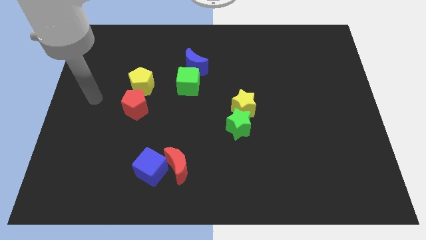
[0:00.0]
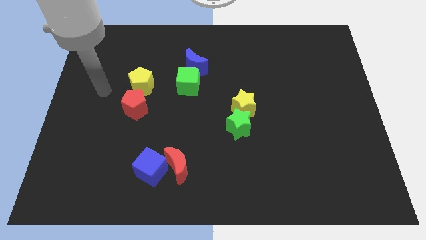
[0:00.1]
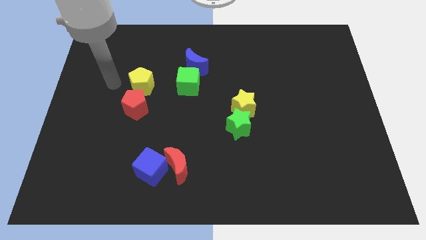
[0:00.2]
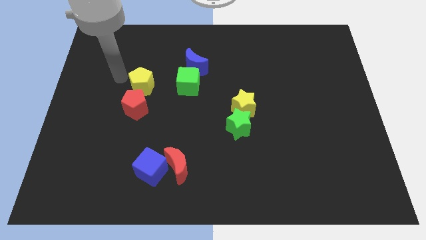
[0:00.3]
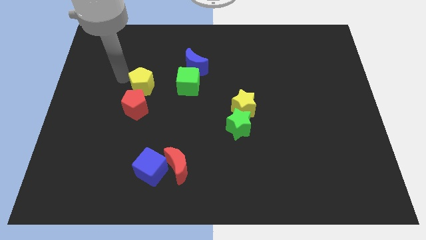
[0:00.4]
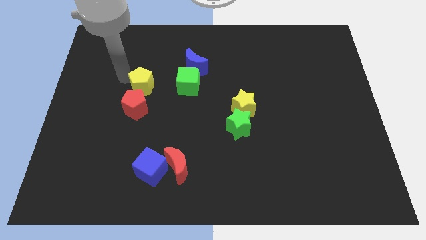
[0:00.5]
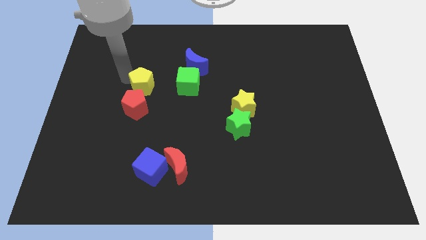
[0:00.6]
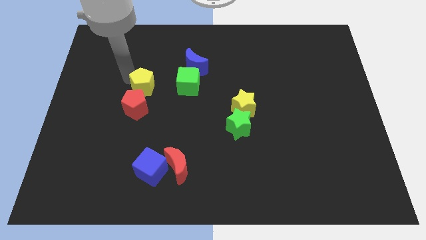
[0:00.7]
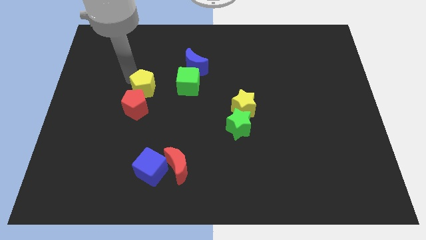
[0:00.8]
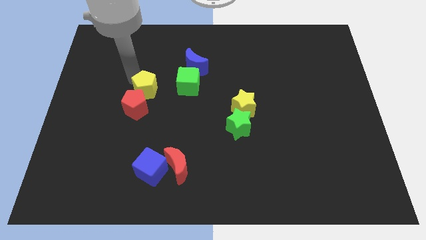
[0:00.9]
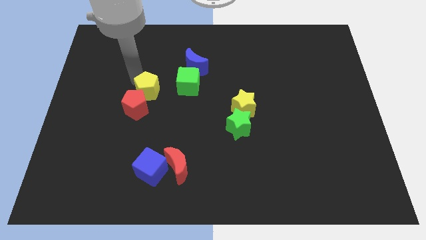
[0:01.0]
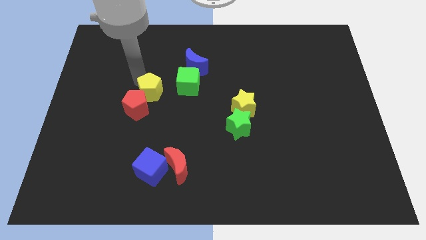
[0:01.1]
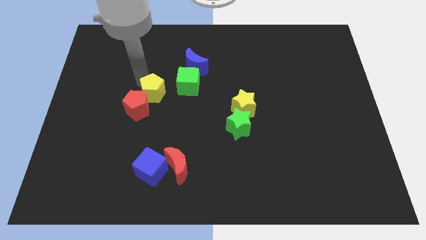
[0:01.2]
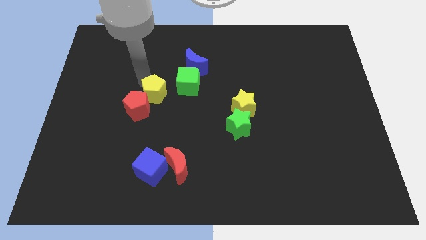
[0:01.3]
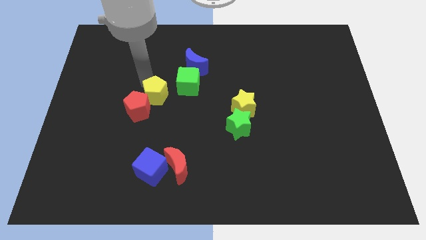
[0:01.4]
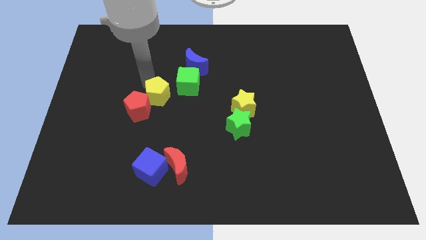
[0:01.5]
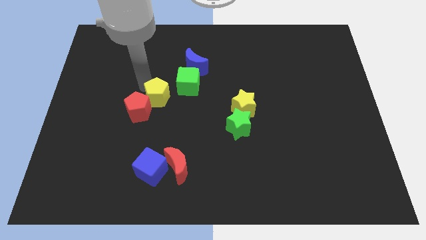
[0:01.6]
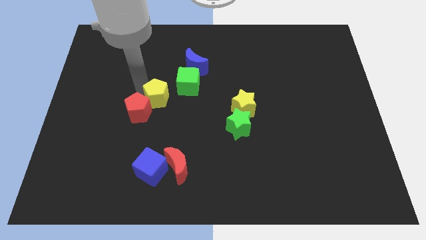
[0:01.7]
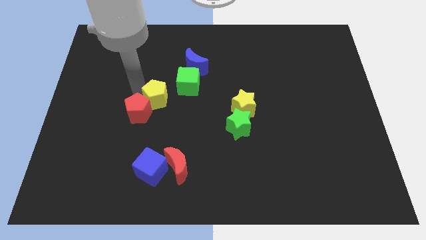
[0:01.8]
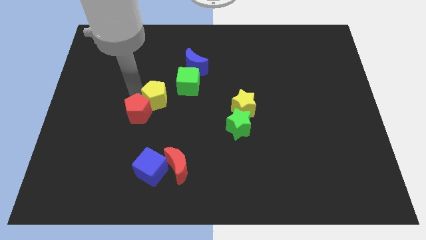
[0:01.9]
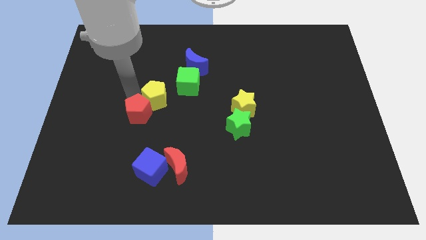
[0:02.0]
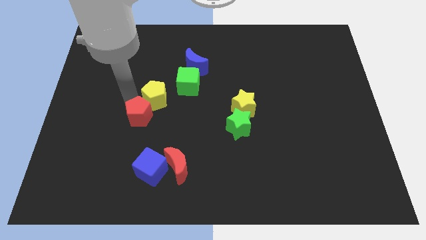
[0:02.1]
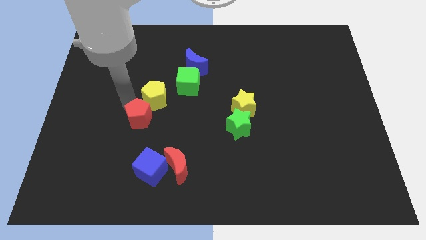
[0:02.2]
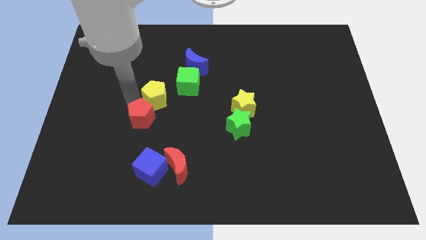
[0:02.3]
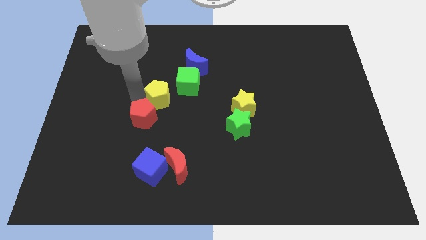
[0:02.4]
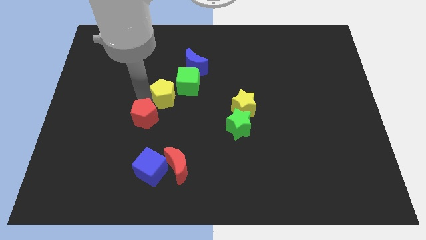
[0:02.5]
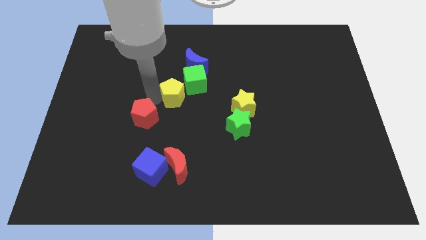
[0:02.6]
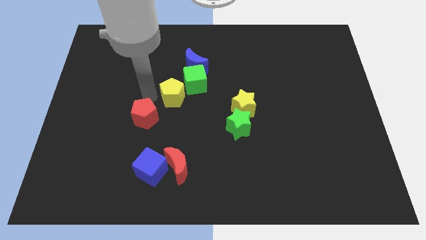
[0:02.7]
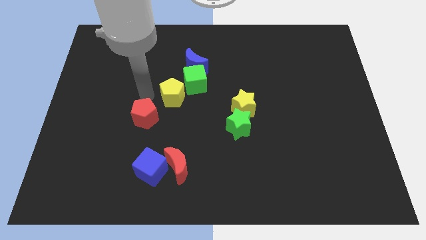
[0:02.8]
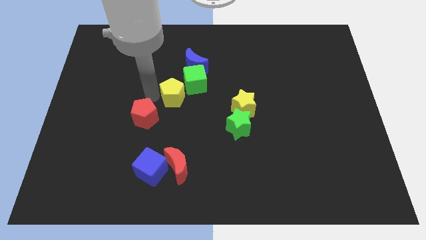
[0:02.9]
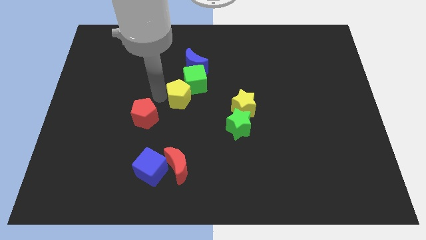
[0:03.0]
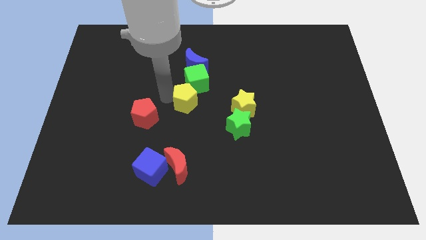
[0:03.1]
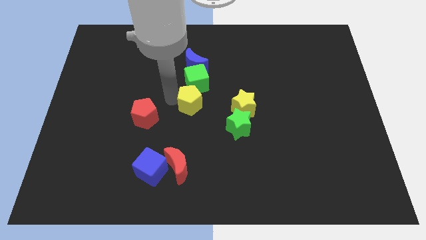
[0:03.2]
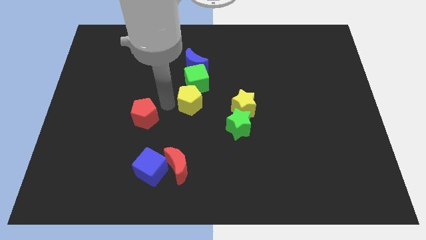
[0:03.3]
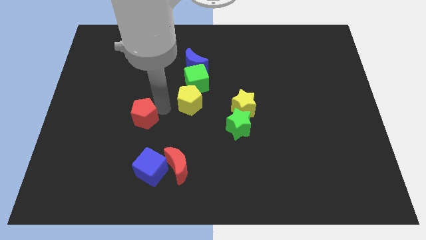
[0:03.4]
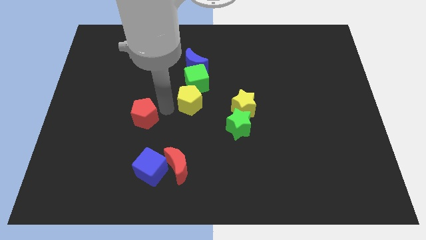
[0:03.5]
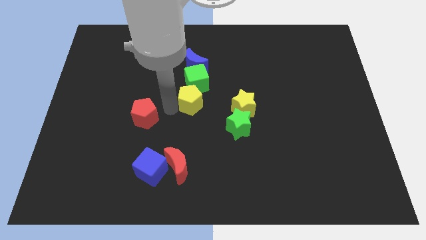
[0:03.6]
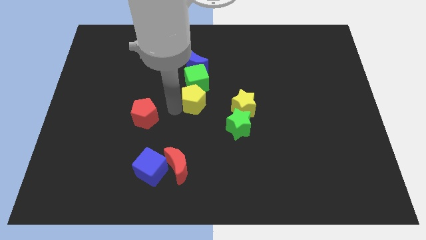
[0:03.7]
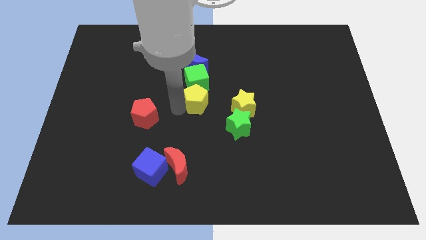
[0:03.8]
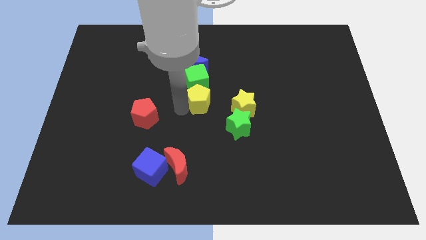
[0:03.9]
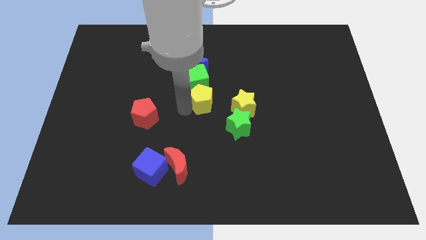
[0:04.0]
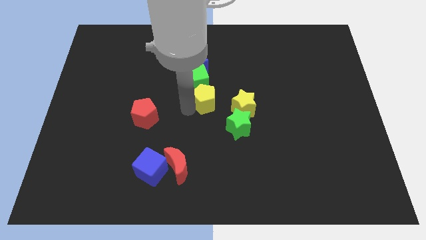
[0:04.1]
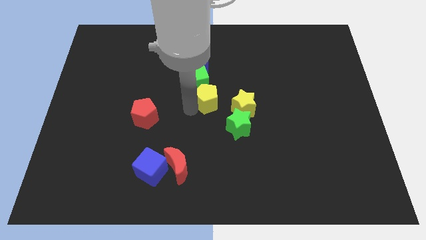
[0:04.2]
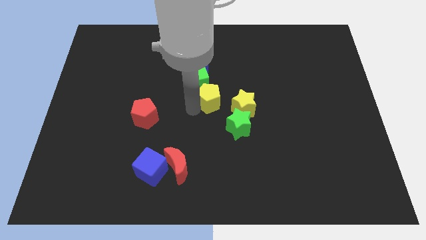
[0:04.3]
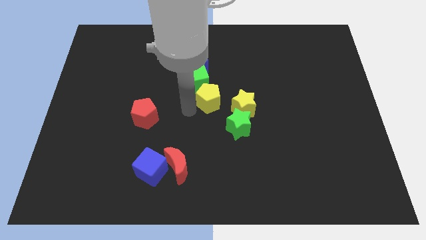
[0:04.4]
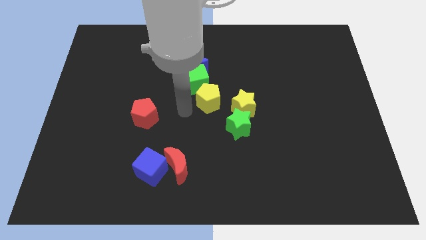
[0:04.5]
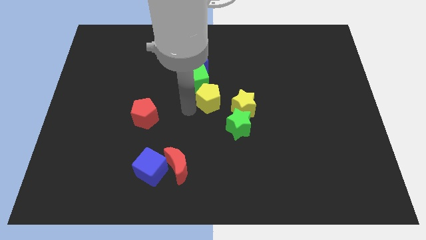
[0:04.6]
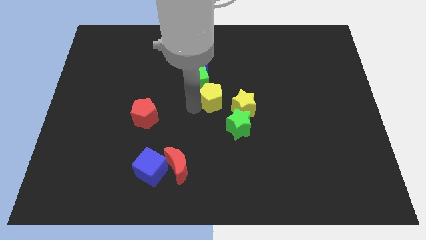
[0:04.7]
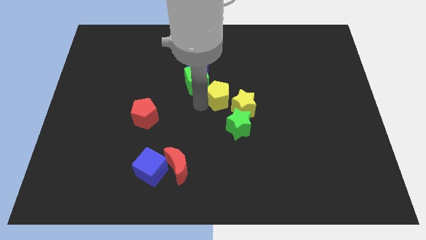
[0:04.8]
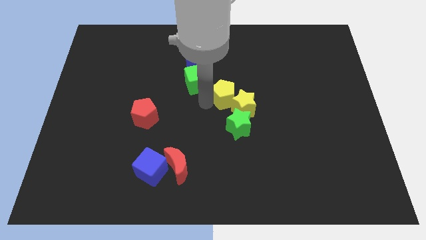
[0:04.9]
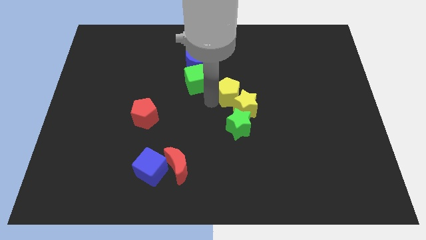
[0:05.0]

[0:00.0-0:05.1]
push the yellow pentagon to the right

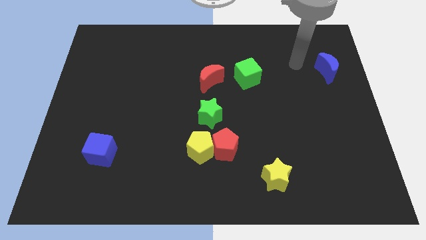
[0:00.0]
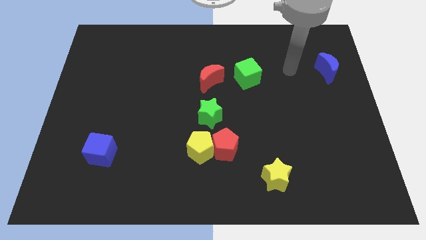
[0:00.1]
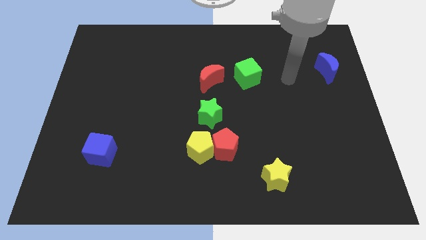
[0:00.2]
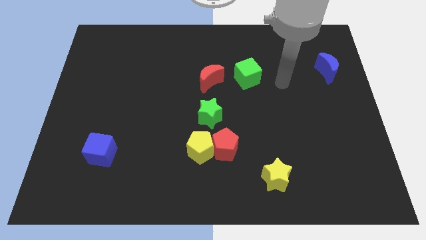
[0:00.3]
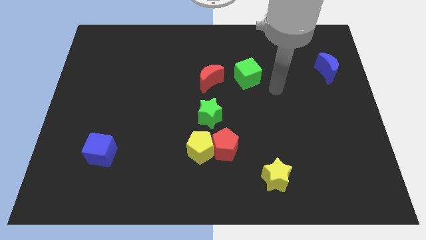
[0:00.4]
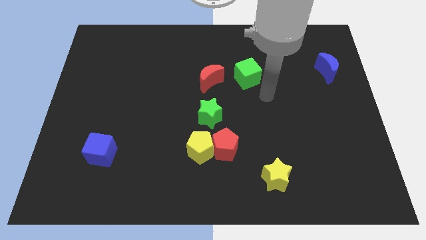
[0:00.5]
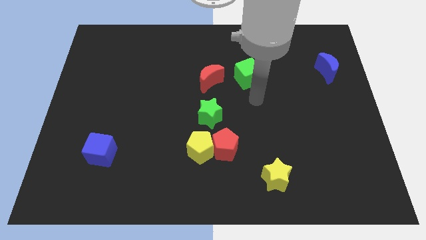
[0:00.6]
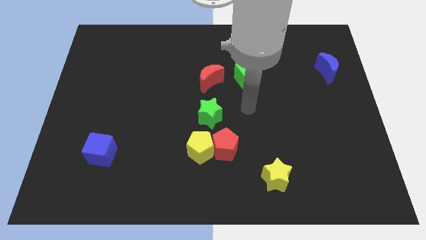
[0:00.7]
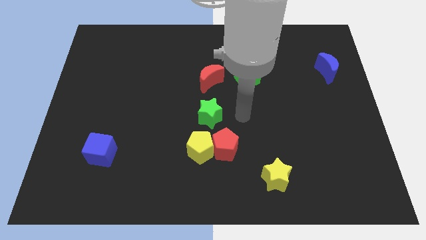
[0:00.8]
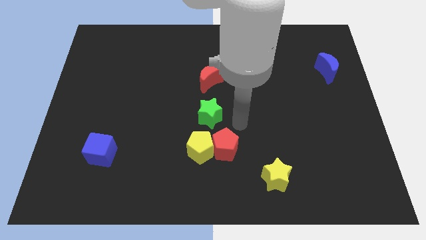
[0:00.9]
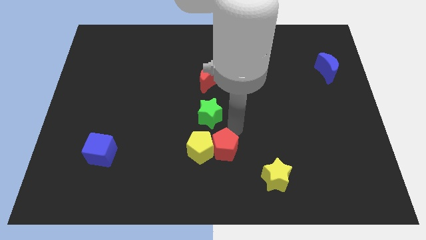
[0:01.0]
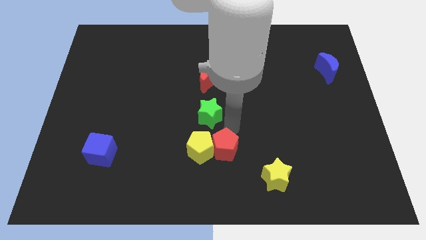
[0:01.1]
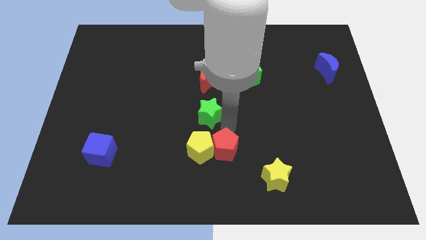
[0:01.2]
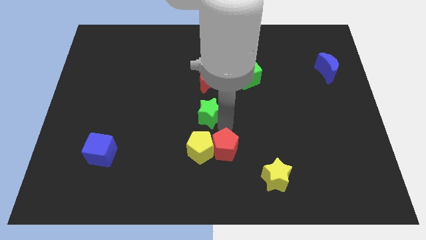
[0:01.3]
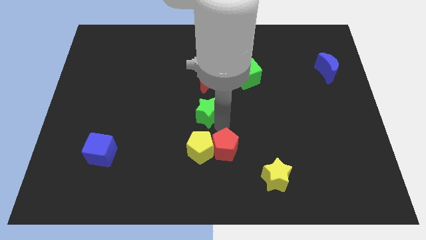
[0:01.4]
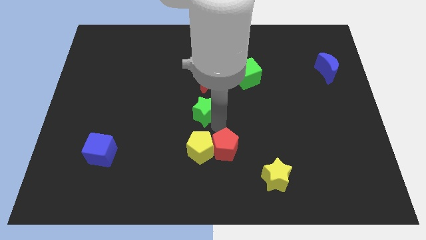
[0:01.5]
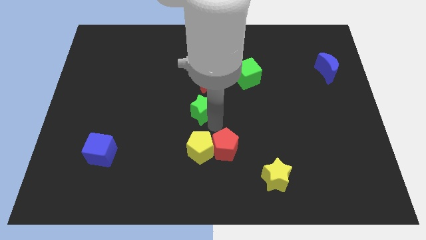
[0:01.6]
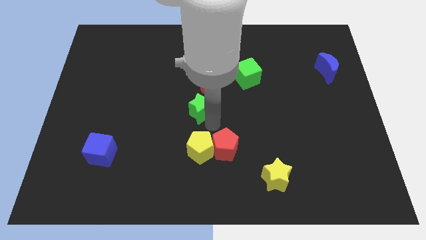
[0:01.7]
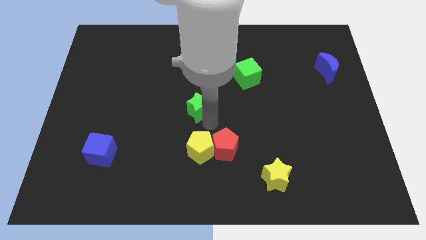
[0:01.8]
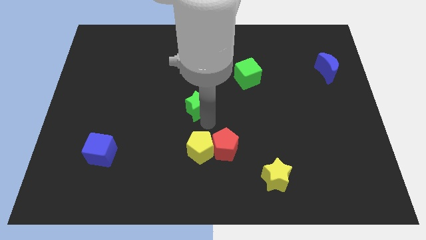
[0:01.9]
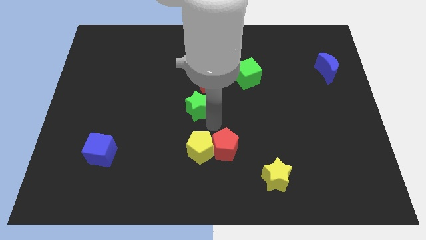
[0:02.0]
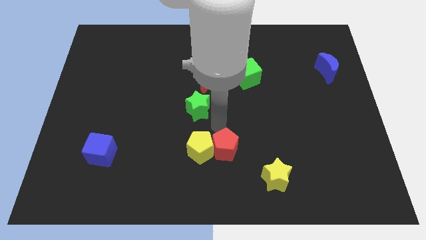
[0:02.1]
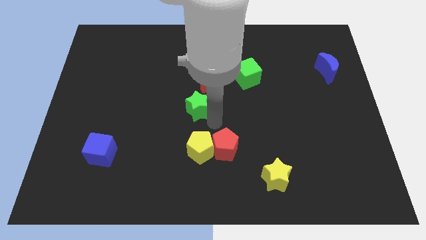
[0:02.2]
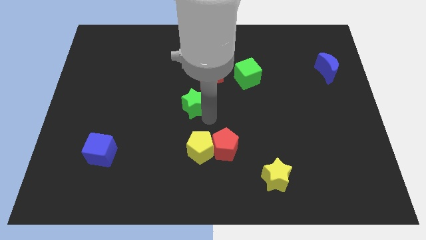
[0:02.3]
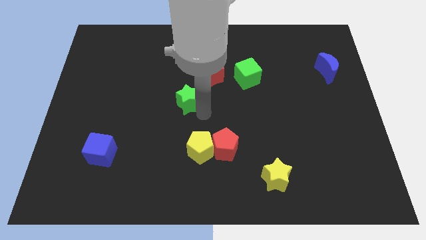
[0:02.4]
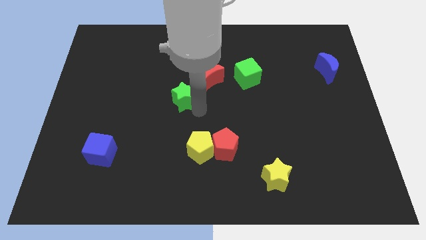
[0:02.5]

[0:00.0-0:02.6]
push the green star somewhat diagonally upwards and to the left

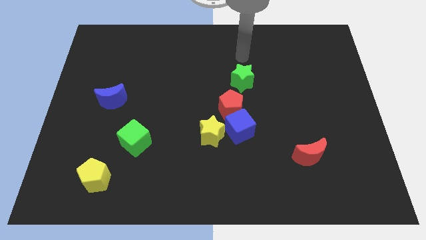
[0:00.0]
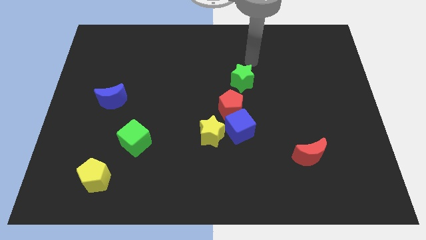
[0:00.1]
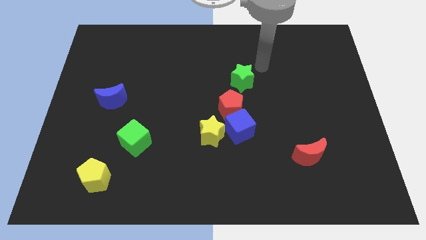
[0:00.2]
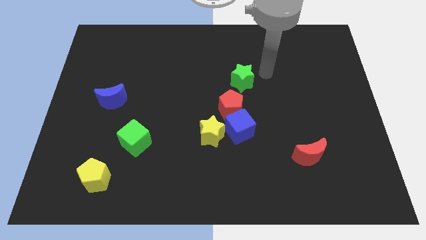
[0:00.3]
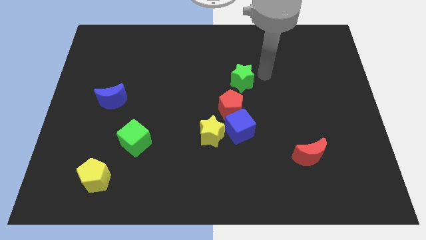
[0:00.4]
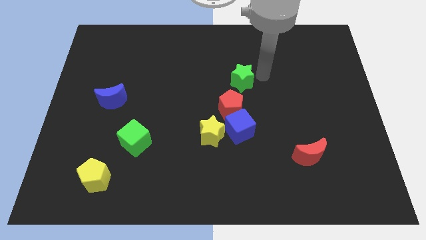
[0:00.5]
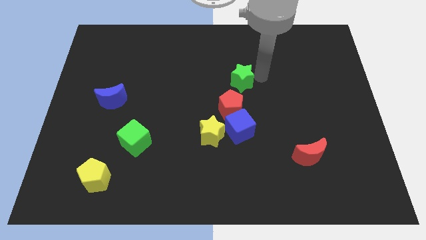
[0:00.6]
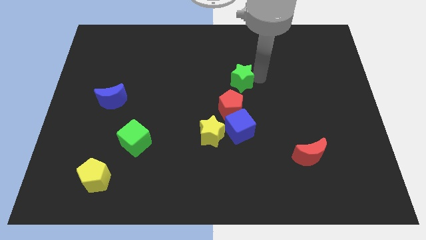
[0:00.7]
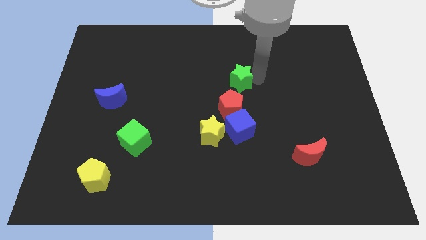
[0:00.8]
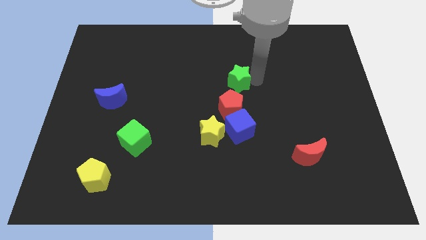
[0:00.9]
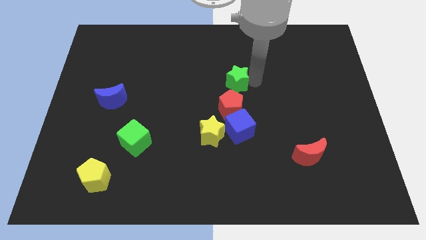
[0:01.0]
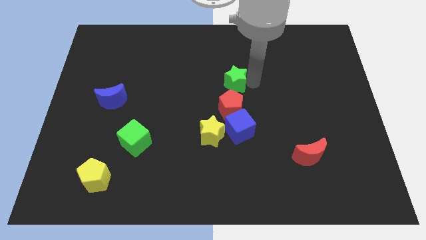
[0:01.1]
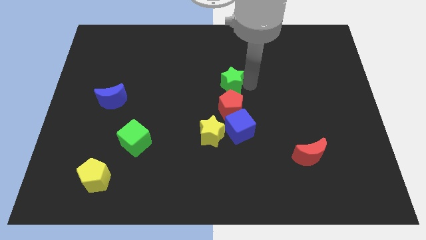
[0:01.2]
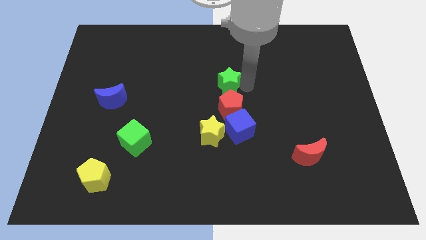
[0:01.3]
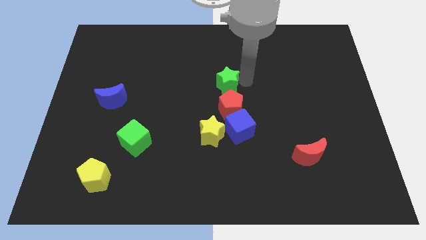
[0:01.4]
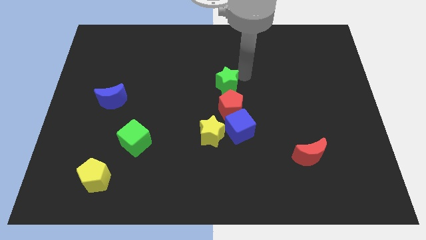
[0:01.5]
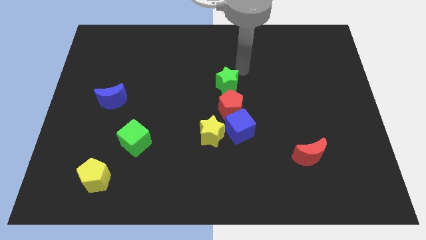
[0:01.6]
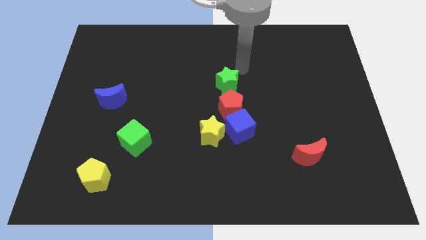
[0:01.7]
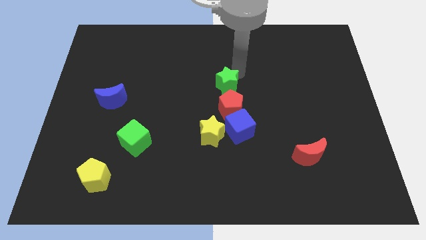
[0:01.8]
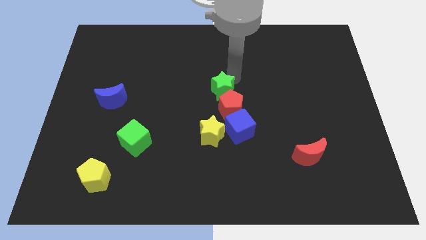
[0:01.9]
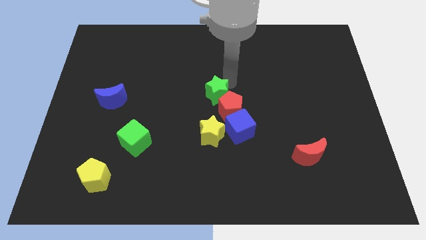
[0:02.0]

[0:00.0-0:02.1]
slide the green star slightly downwards and then to the left
